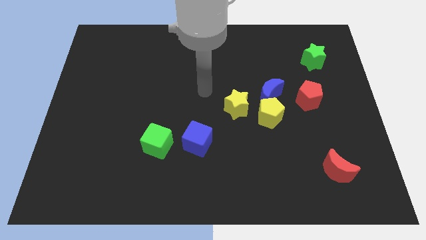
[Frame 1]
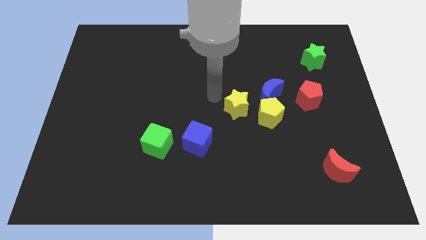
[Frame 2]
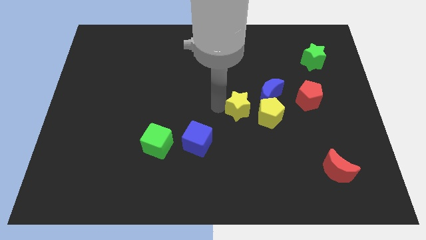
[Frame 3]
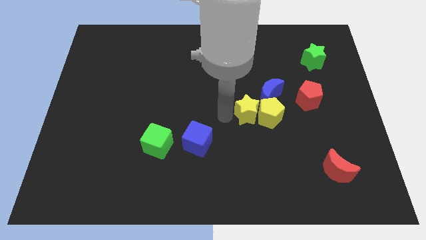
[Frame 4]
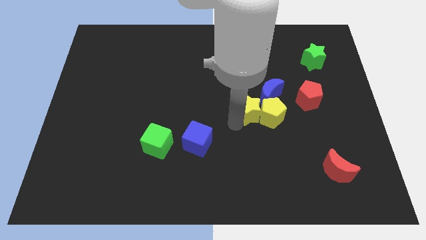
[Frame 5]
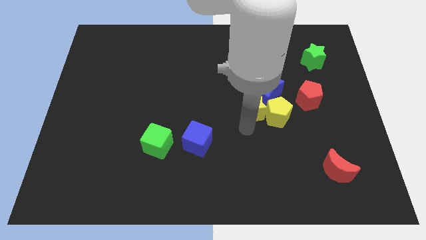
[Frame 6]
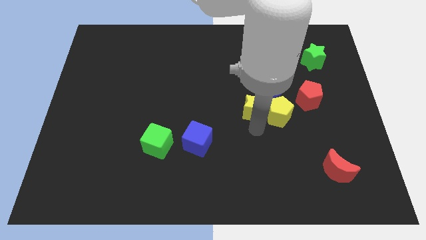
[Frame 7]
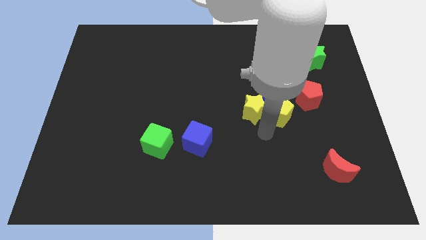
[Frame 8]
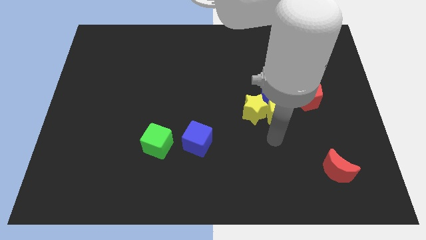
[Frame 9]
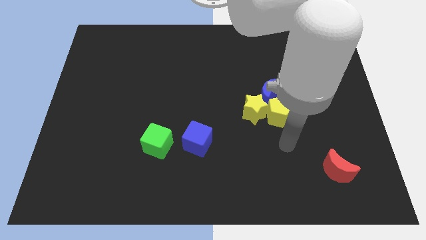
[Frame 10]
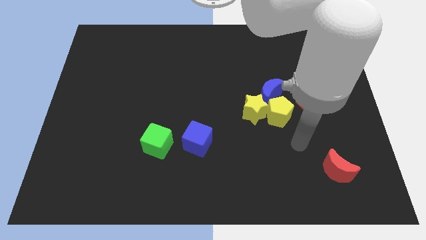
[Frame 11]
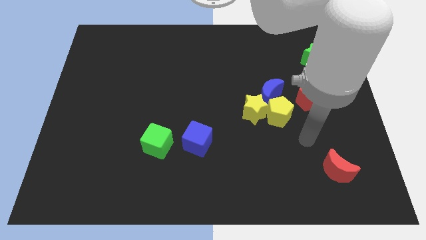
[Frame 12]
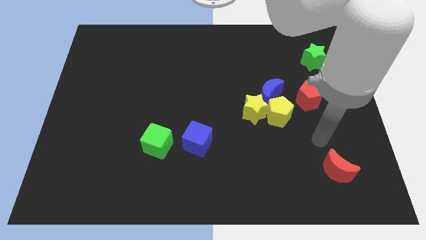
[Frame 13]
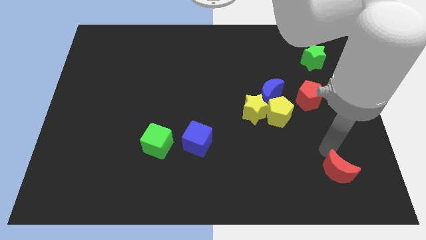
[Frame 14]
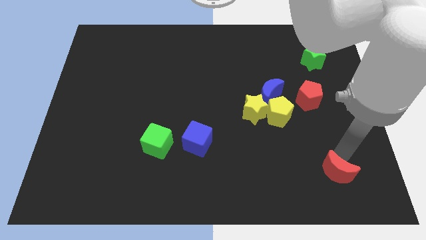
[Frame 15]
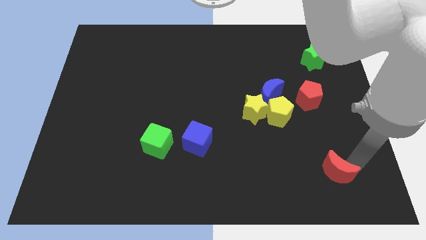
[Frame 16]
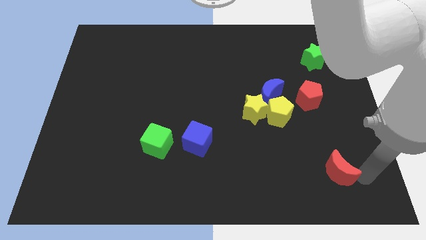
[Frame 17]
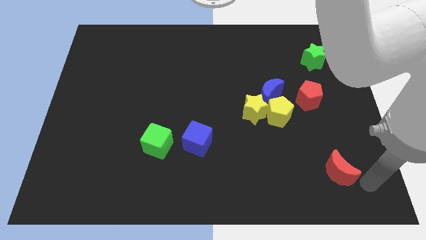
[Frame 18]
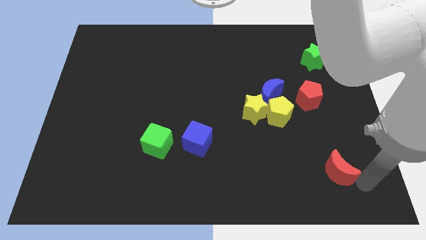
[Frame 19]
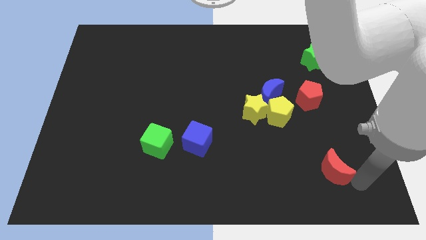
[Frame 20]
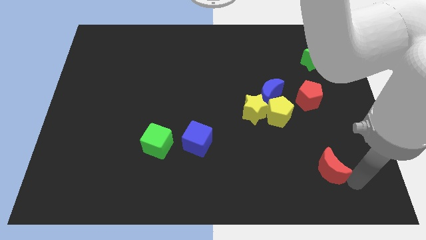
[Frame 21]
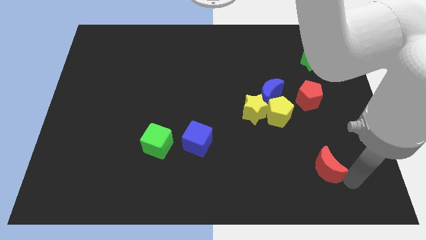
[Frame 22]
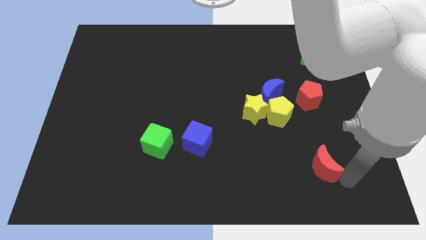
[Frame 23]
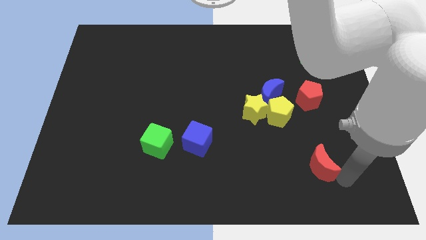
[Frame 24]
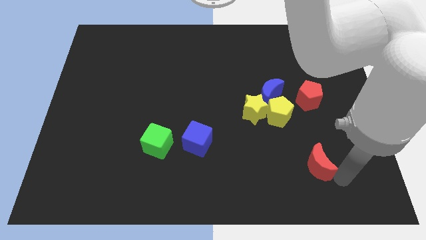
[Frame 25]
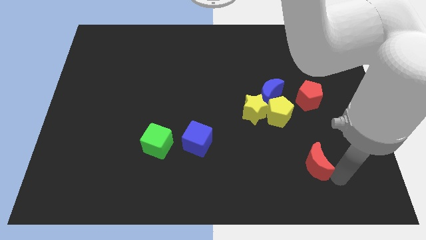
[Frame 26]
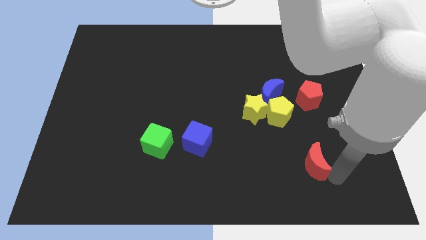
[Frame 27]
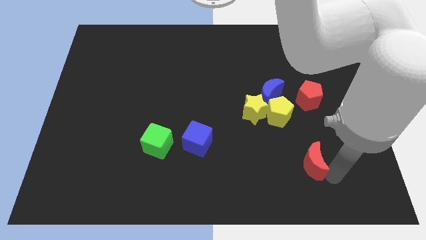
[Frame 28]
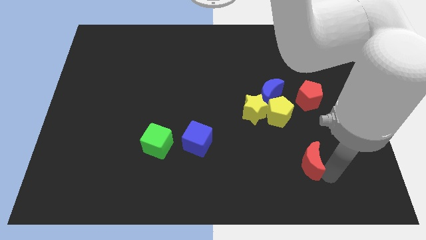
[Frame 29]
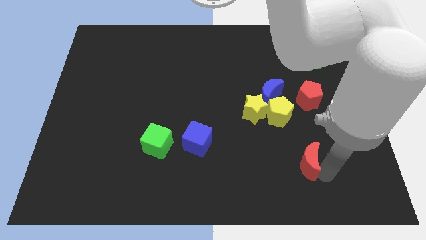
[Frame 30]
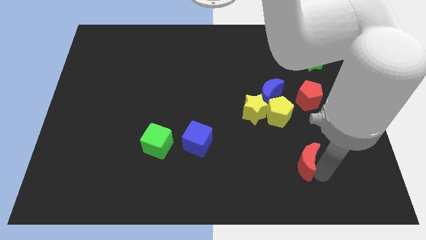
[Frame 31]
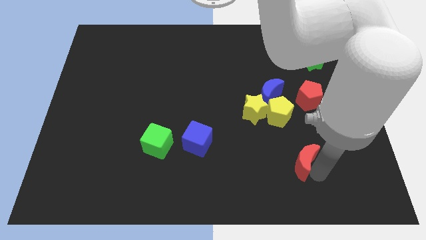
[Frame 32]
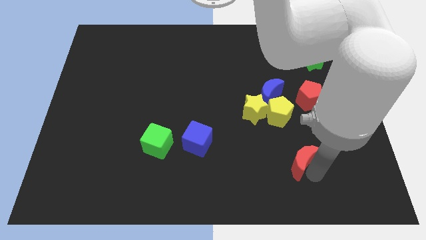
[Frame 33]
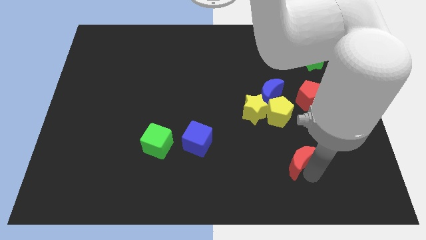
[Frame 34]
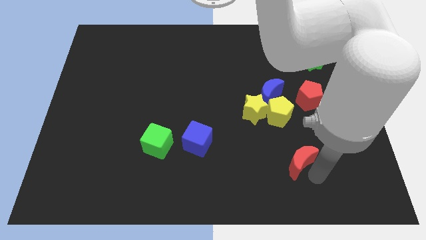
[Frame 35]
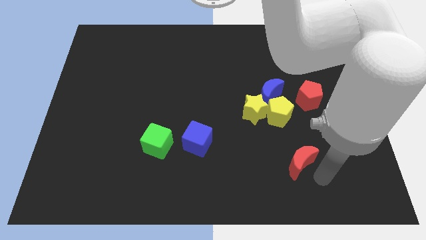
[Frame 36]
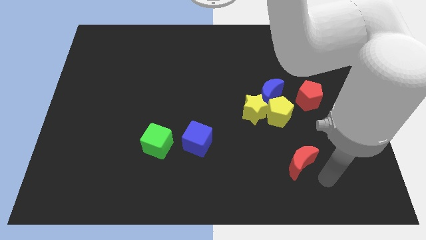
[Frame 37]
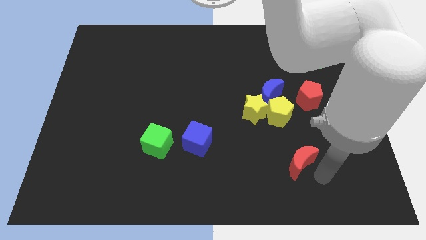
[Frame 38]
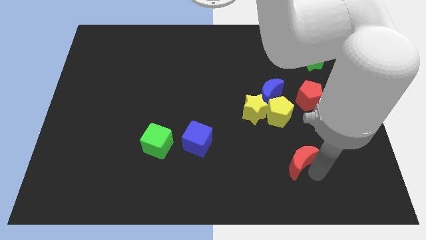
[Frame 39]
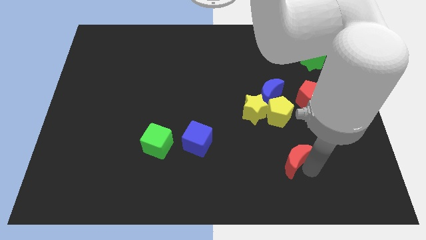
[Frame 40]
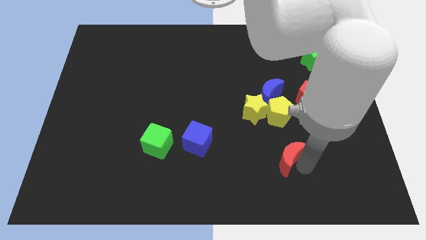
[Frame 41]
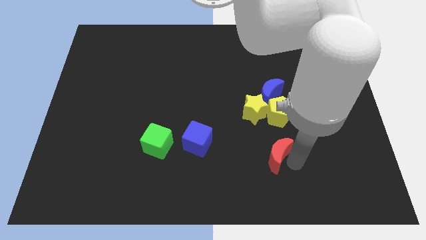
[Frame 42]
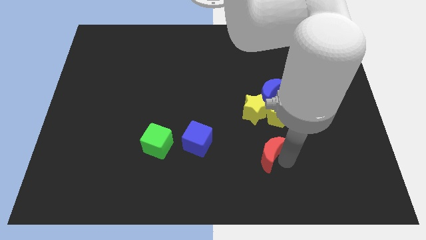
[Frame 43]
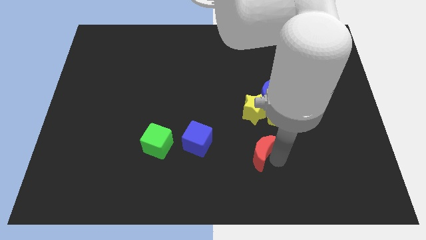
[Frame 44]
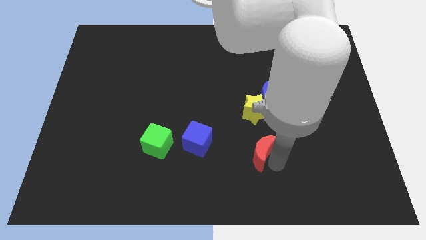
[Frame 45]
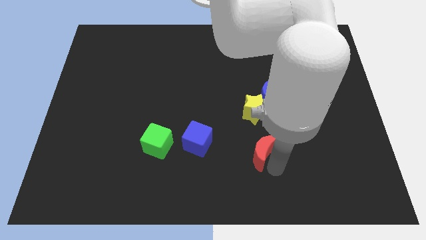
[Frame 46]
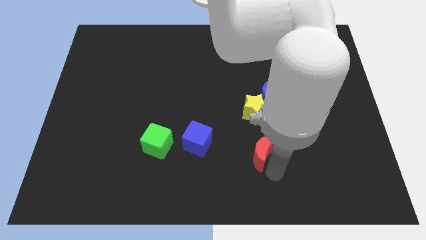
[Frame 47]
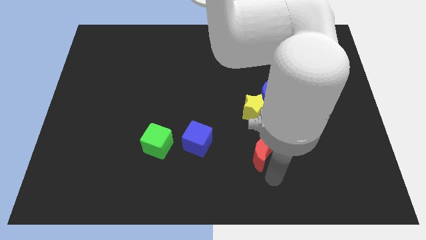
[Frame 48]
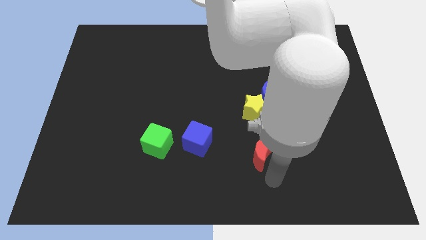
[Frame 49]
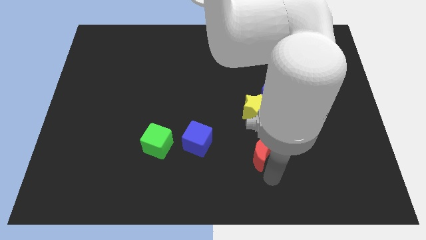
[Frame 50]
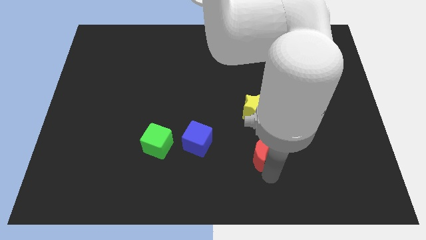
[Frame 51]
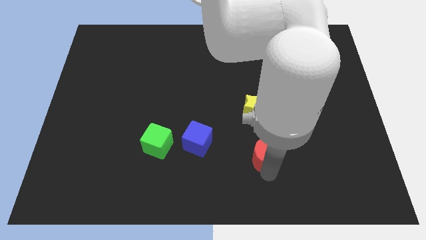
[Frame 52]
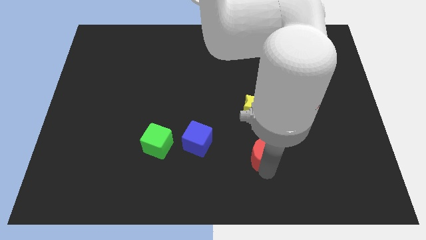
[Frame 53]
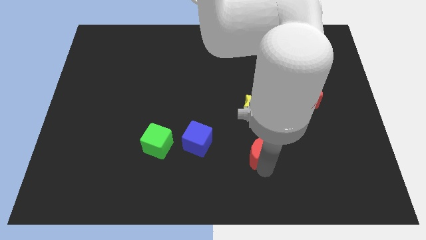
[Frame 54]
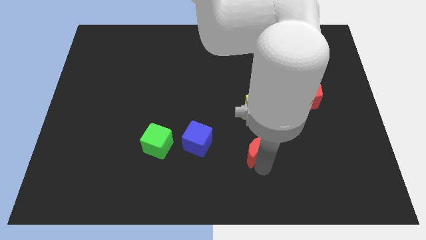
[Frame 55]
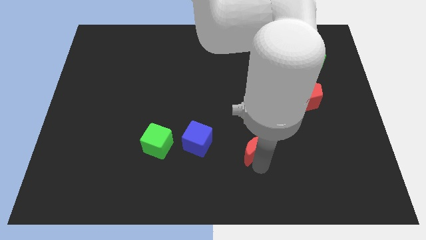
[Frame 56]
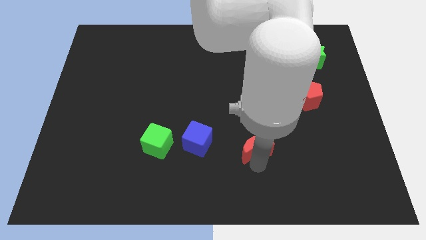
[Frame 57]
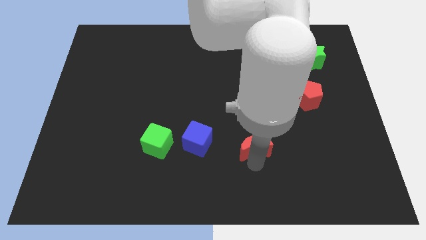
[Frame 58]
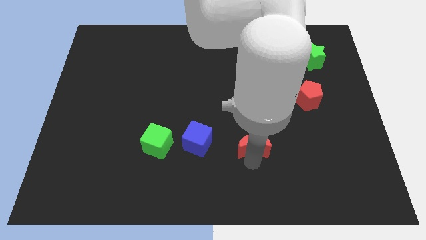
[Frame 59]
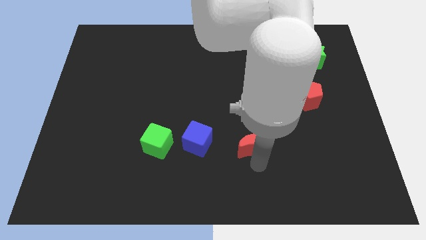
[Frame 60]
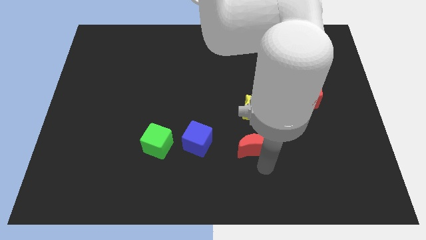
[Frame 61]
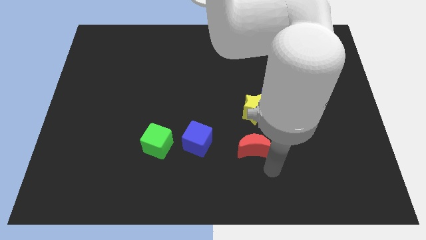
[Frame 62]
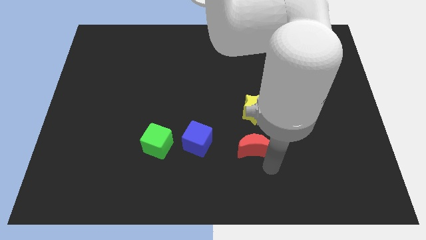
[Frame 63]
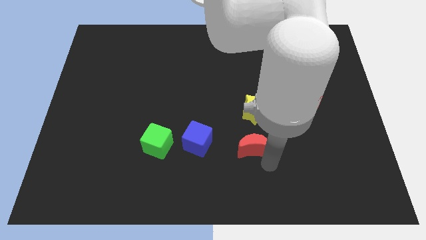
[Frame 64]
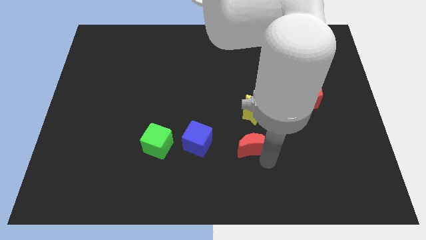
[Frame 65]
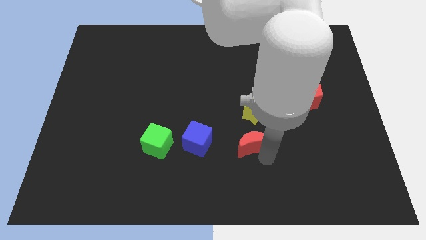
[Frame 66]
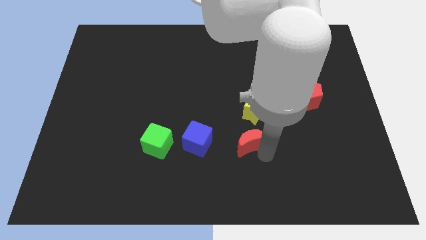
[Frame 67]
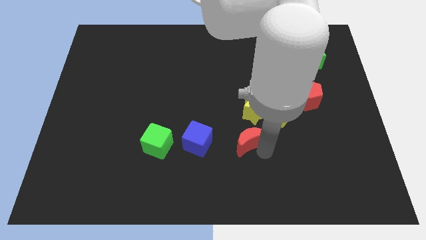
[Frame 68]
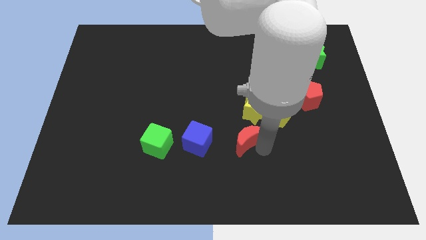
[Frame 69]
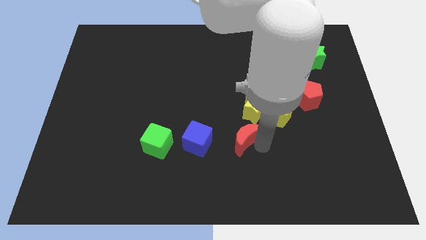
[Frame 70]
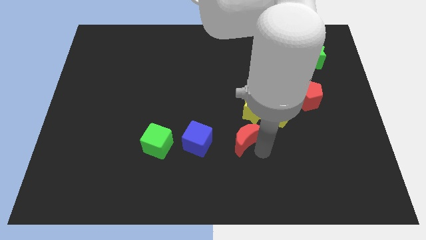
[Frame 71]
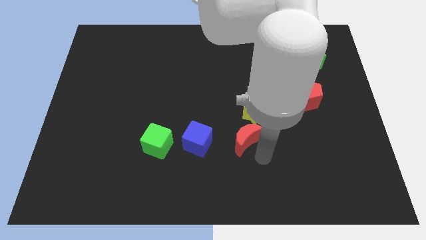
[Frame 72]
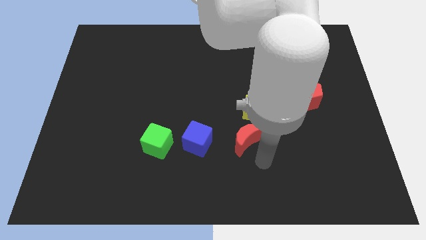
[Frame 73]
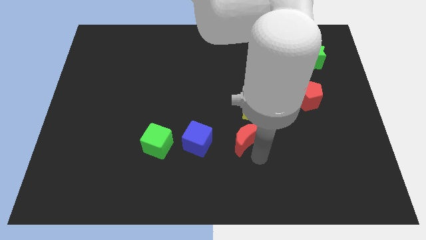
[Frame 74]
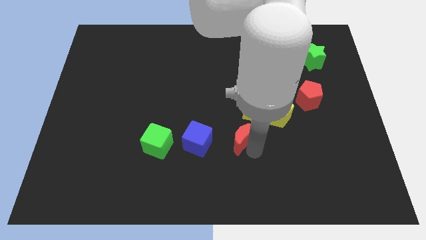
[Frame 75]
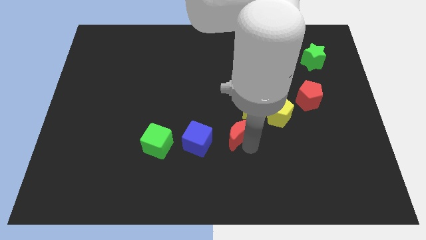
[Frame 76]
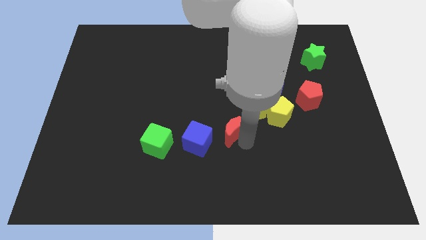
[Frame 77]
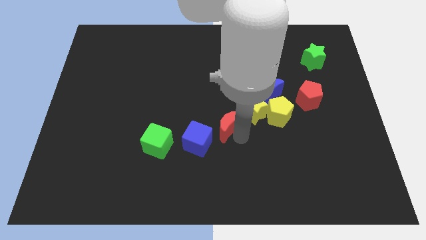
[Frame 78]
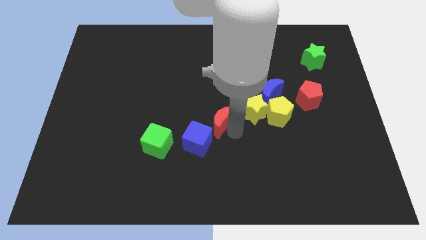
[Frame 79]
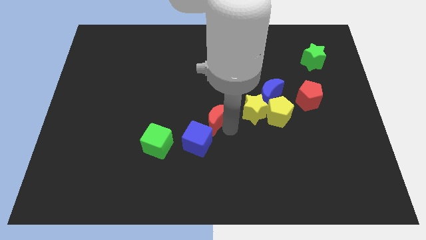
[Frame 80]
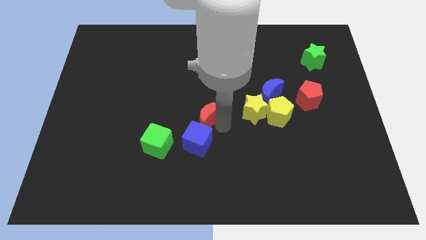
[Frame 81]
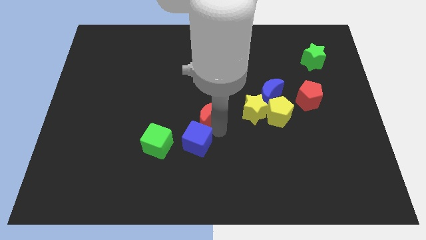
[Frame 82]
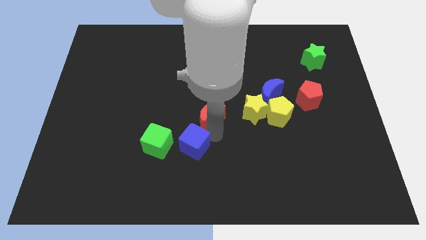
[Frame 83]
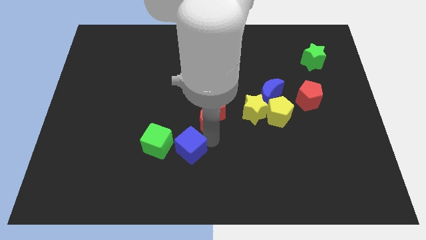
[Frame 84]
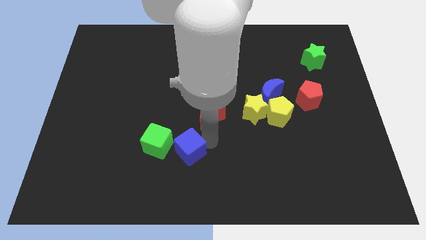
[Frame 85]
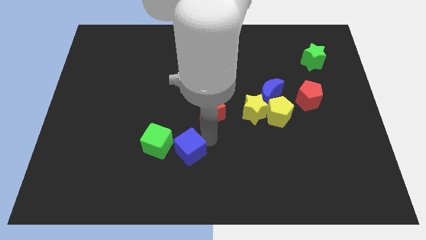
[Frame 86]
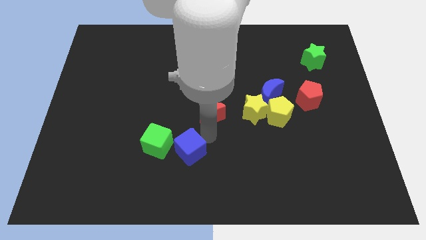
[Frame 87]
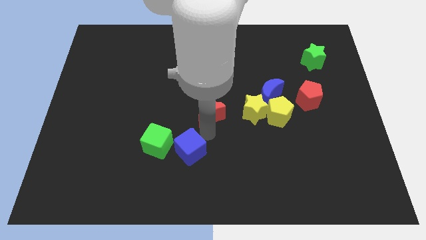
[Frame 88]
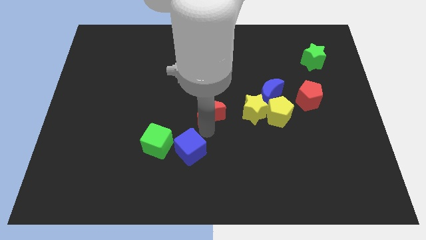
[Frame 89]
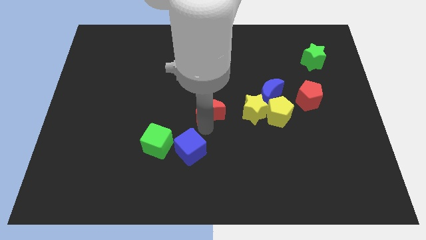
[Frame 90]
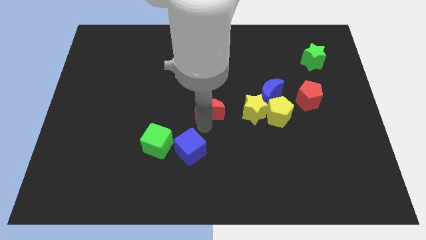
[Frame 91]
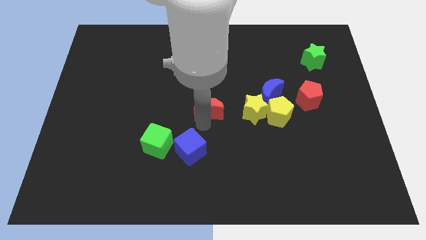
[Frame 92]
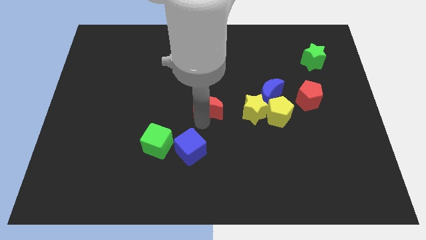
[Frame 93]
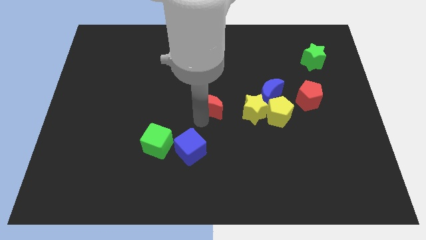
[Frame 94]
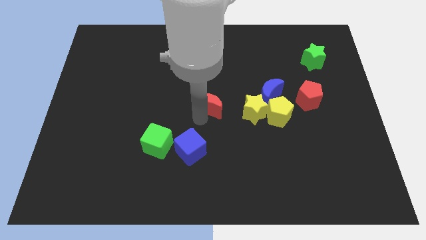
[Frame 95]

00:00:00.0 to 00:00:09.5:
push the red moon to the left side of the blue moon
